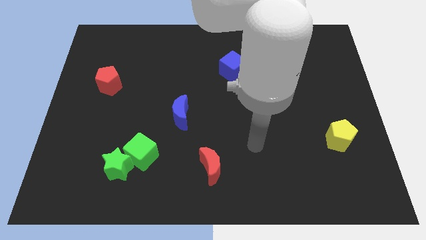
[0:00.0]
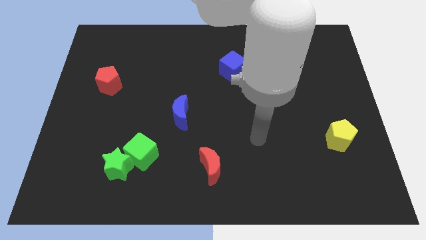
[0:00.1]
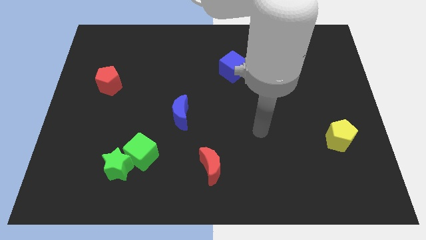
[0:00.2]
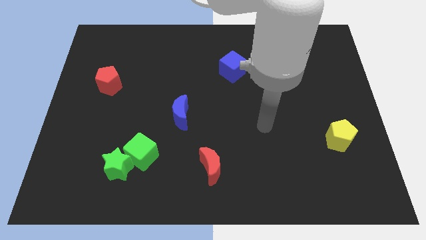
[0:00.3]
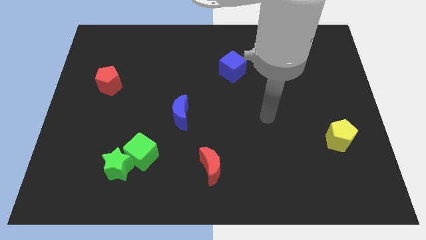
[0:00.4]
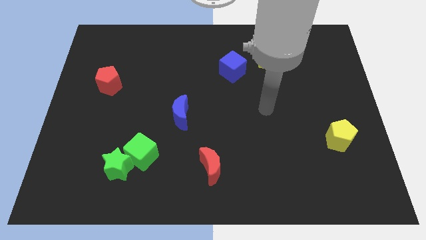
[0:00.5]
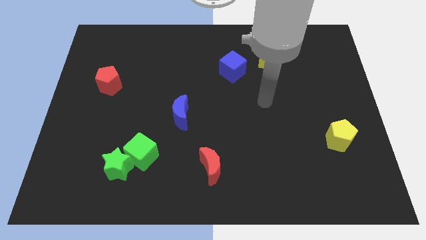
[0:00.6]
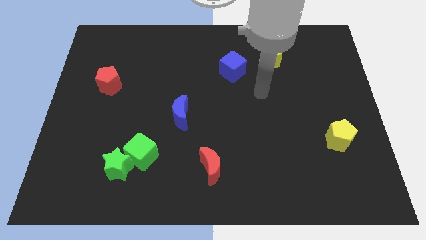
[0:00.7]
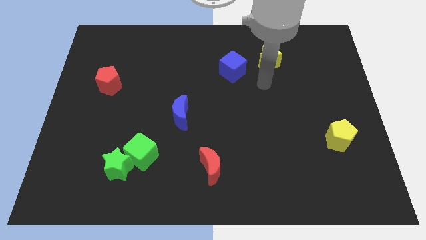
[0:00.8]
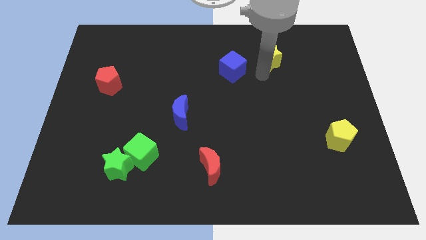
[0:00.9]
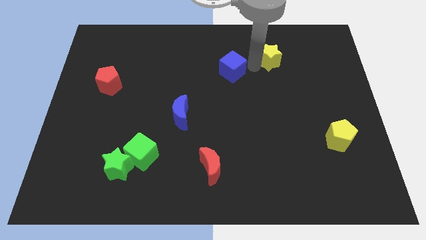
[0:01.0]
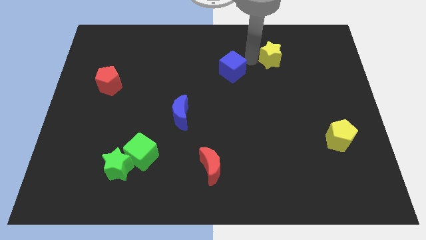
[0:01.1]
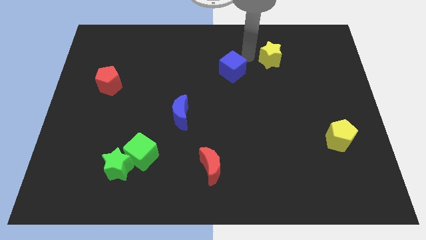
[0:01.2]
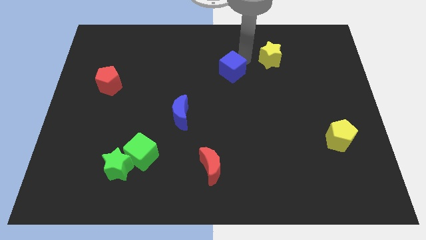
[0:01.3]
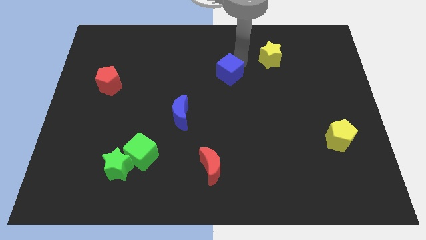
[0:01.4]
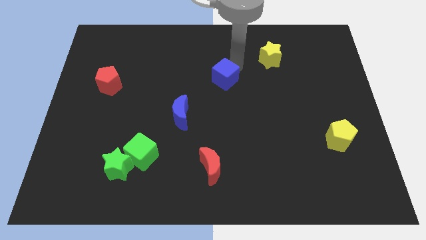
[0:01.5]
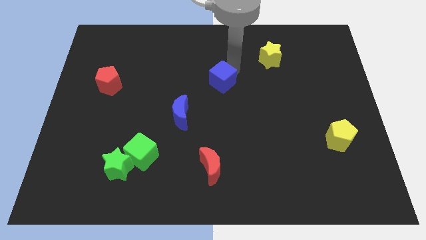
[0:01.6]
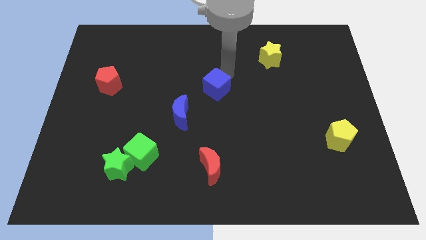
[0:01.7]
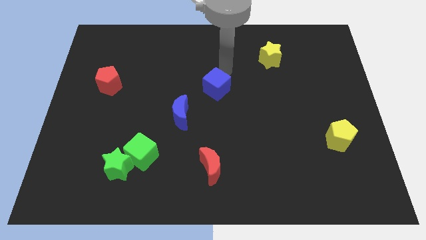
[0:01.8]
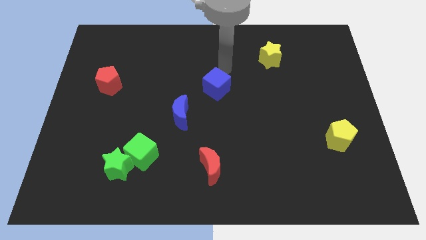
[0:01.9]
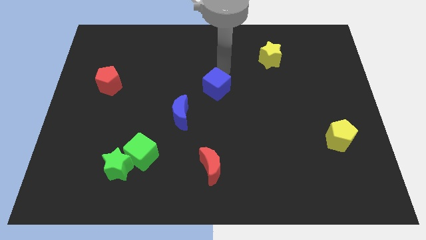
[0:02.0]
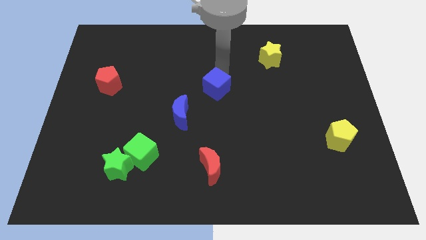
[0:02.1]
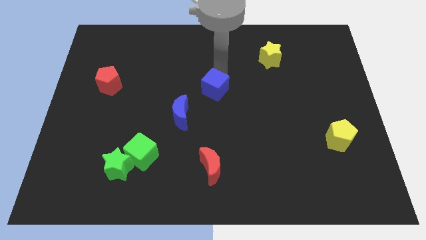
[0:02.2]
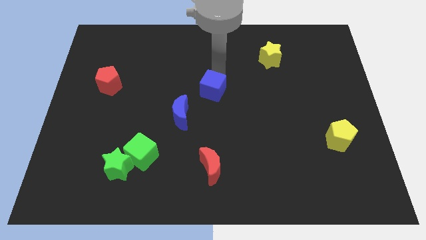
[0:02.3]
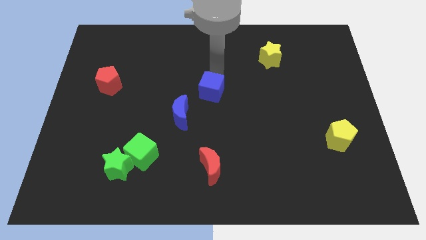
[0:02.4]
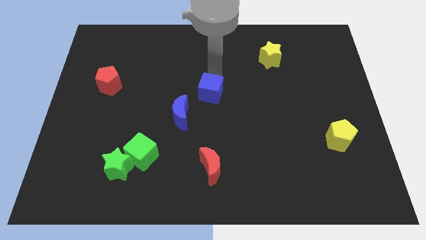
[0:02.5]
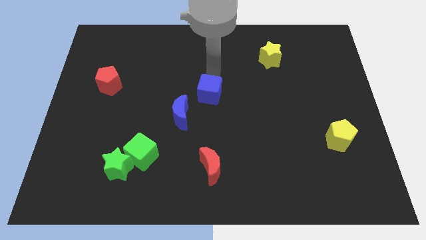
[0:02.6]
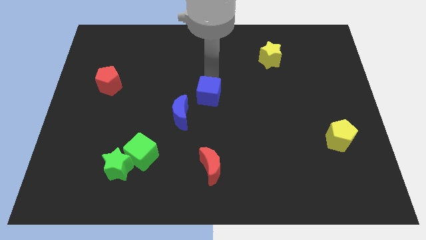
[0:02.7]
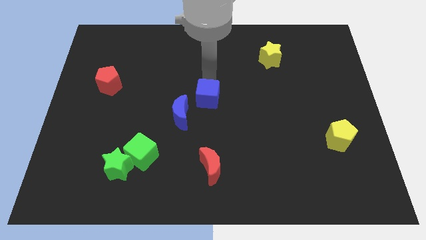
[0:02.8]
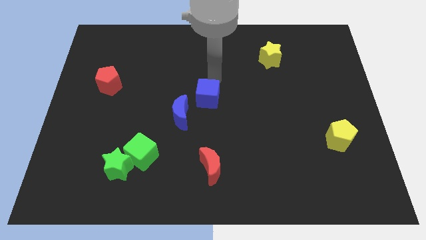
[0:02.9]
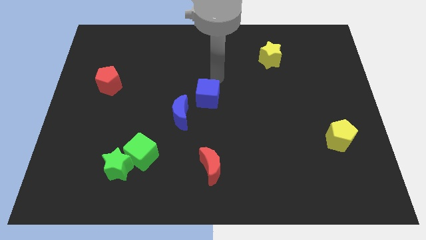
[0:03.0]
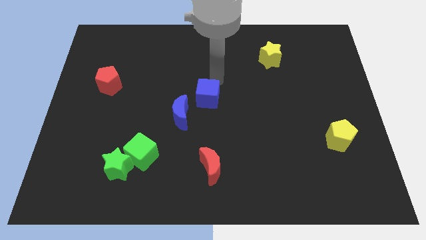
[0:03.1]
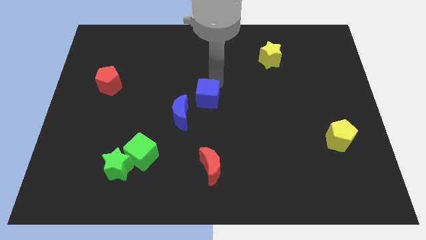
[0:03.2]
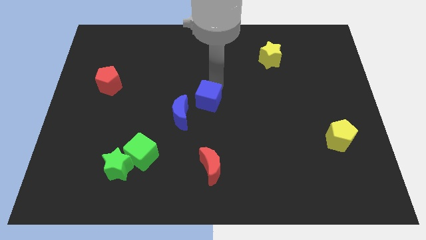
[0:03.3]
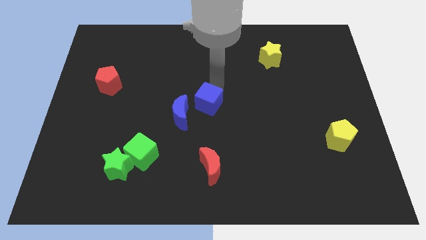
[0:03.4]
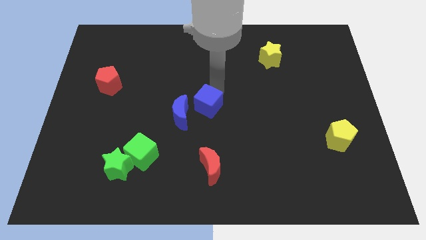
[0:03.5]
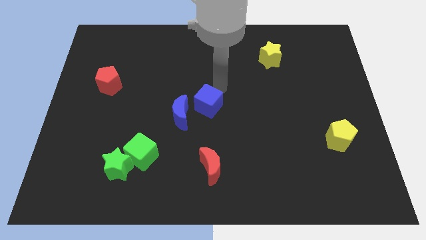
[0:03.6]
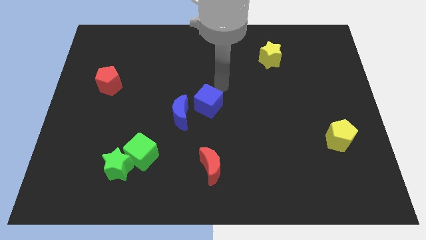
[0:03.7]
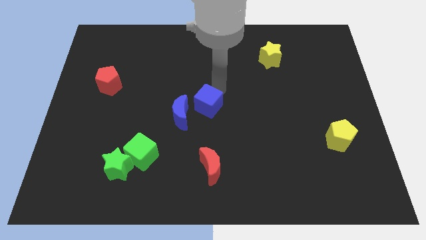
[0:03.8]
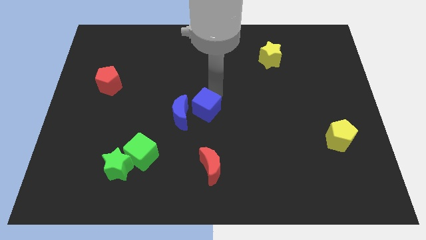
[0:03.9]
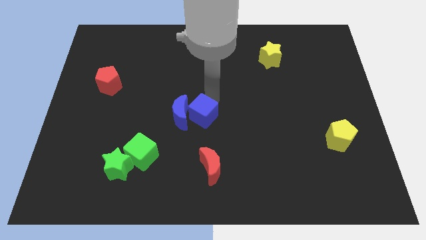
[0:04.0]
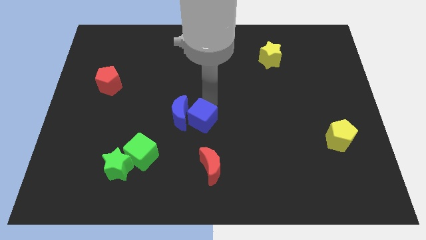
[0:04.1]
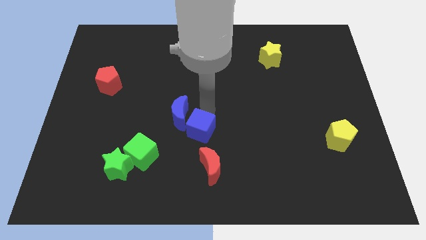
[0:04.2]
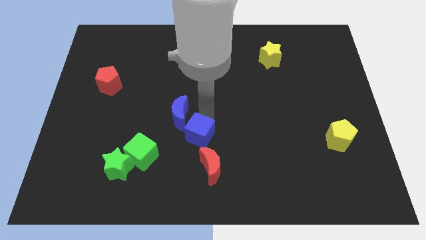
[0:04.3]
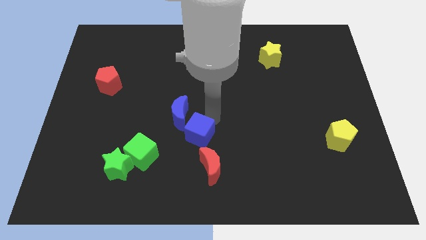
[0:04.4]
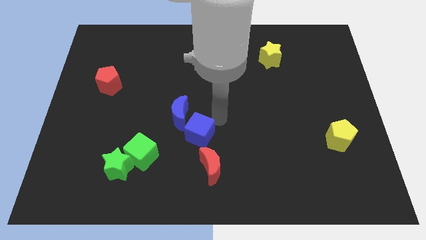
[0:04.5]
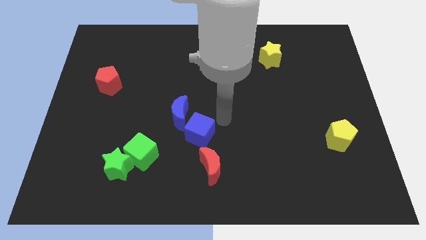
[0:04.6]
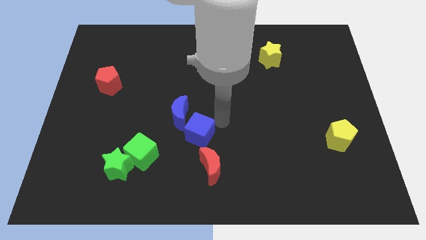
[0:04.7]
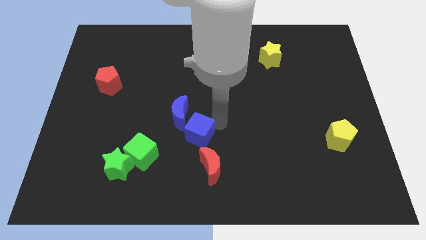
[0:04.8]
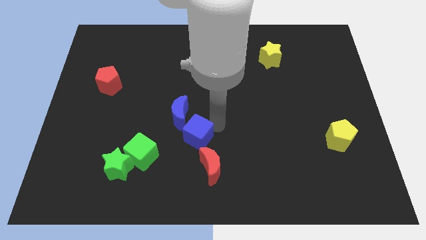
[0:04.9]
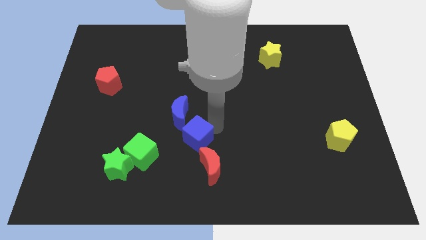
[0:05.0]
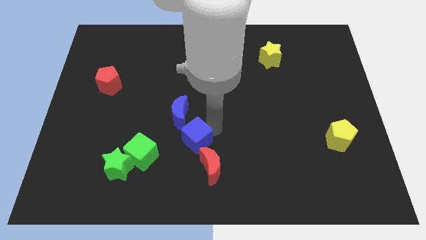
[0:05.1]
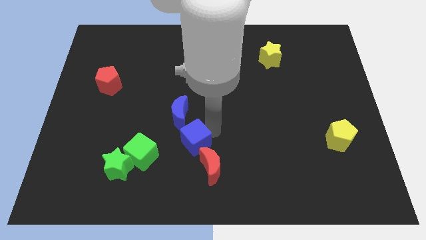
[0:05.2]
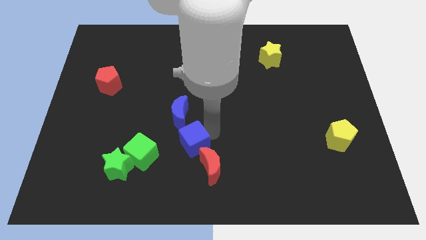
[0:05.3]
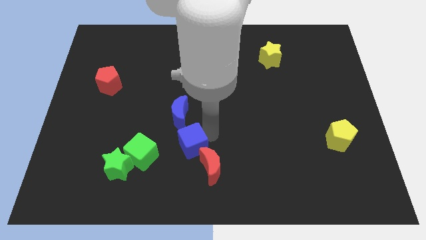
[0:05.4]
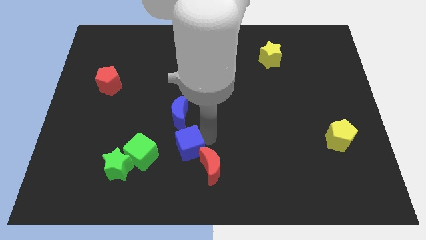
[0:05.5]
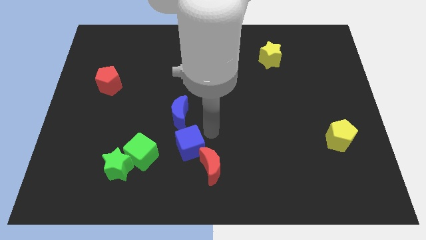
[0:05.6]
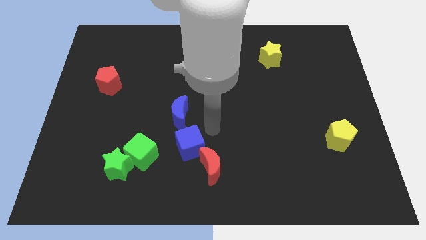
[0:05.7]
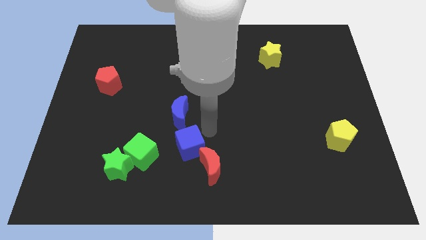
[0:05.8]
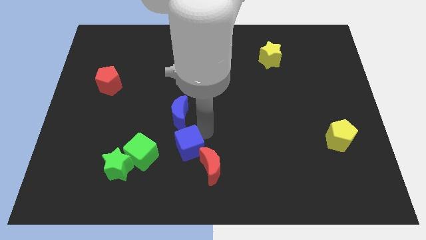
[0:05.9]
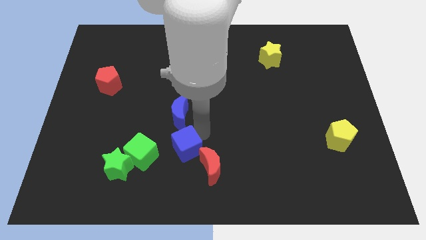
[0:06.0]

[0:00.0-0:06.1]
move the blue cube to the left of the red moon

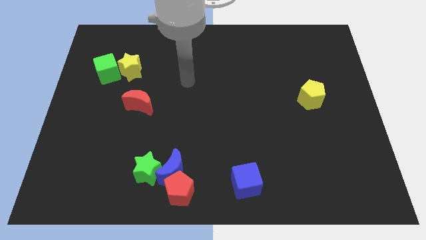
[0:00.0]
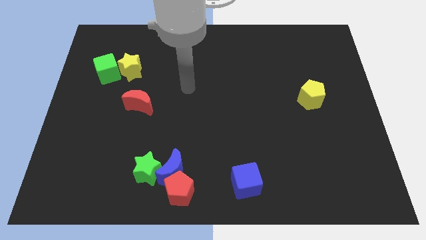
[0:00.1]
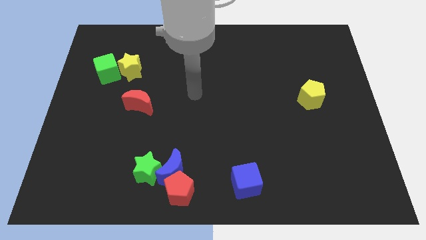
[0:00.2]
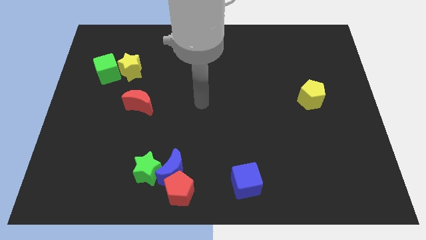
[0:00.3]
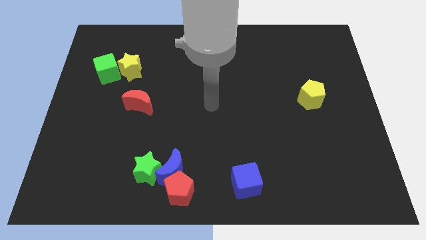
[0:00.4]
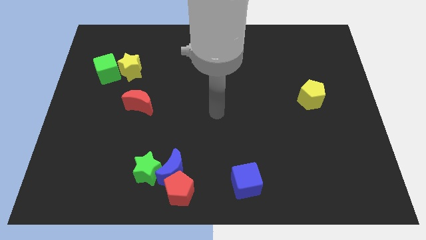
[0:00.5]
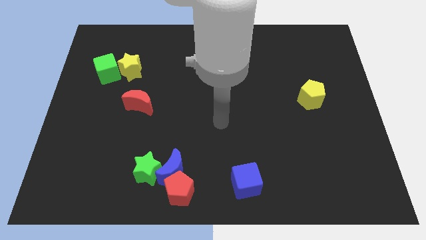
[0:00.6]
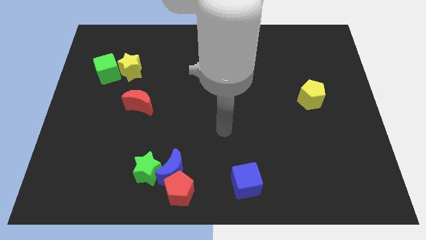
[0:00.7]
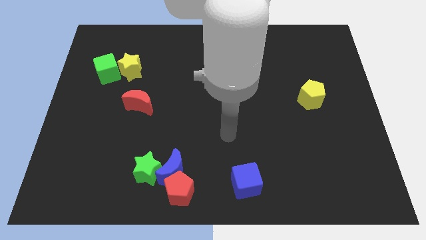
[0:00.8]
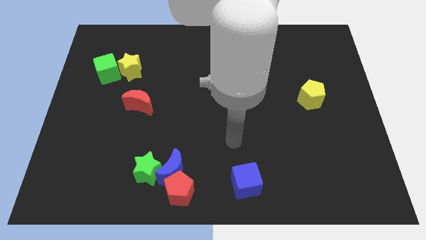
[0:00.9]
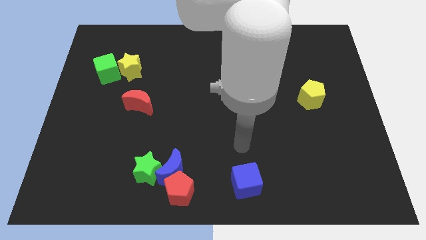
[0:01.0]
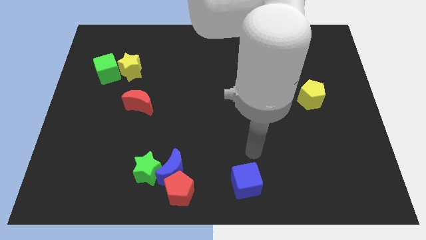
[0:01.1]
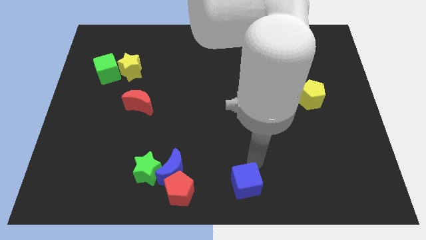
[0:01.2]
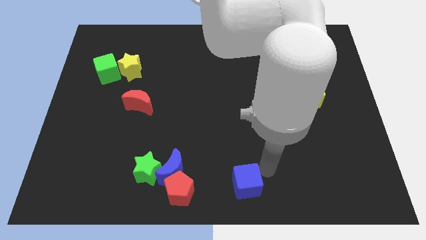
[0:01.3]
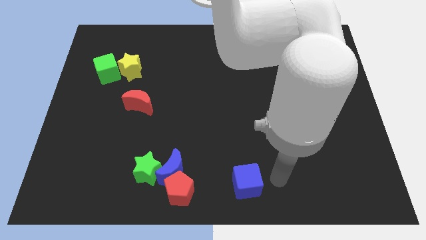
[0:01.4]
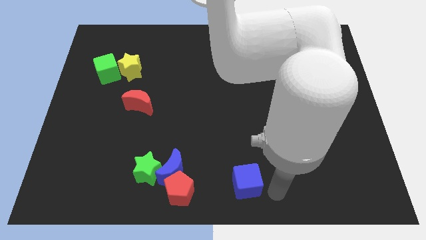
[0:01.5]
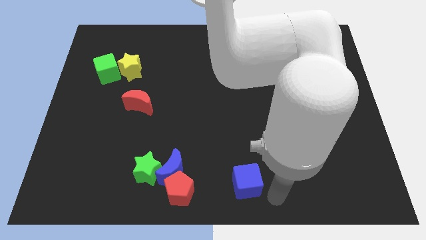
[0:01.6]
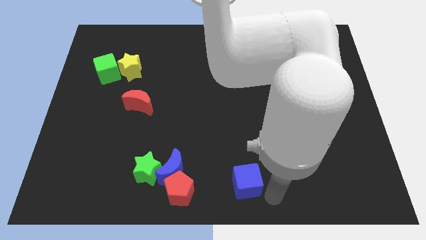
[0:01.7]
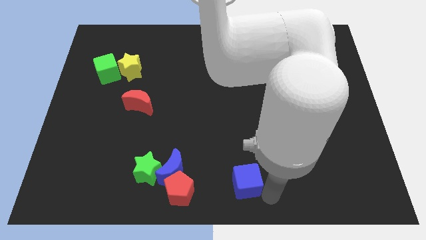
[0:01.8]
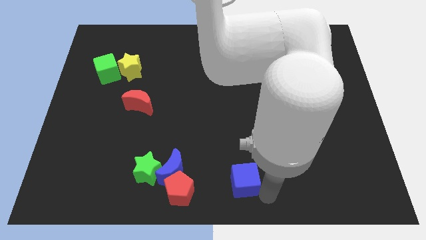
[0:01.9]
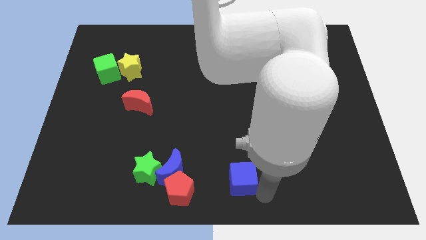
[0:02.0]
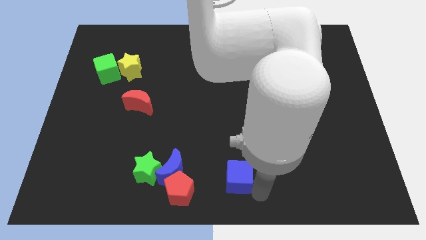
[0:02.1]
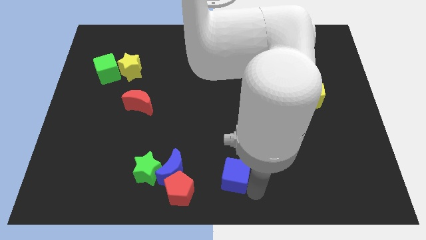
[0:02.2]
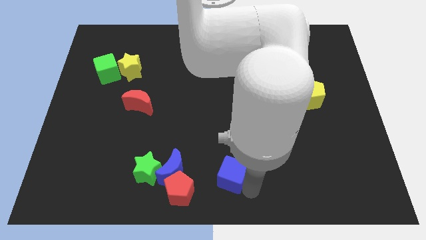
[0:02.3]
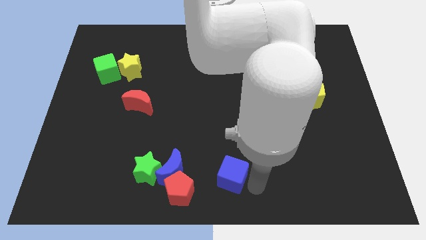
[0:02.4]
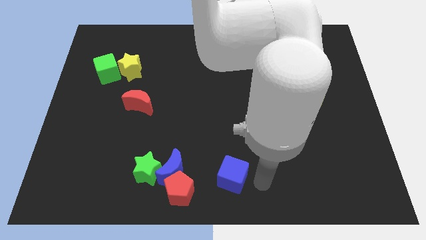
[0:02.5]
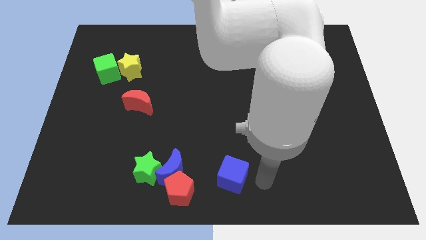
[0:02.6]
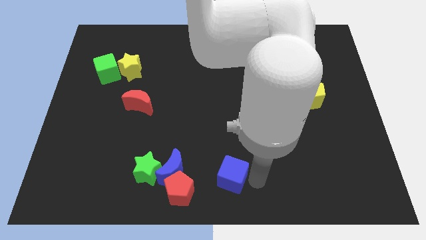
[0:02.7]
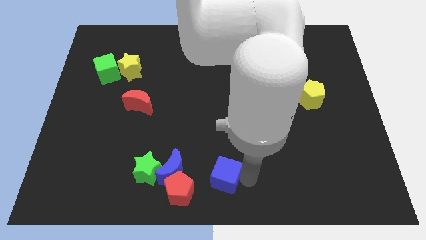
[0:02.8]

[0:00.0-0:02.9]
put the blue cube to the right of the green star
